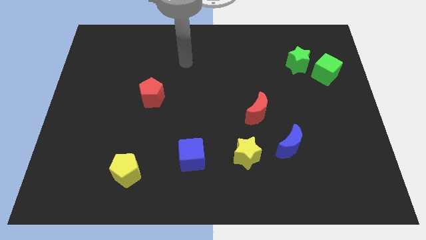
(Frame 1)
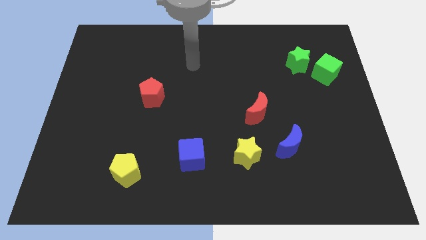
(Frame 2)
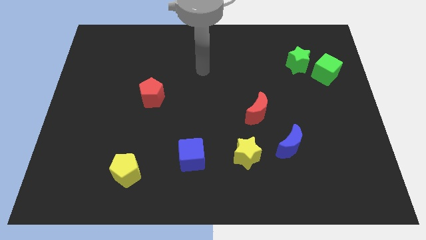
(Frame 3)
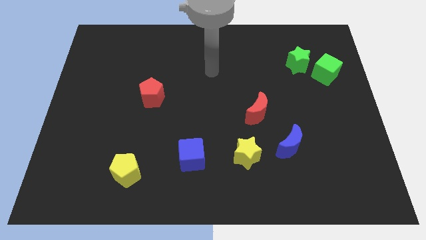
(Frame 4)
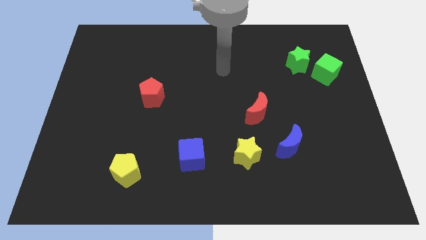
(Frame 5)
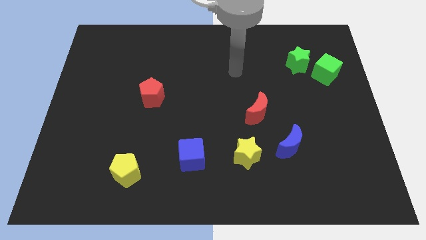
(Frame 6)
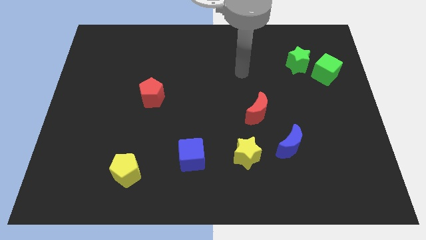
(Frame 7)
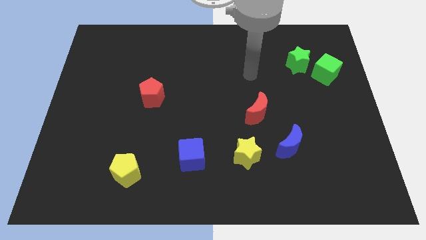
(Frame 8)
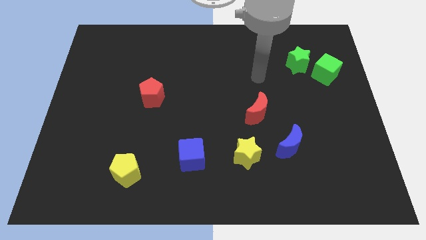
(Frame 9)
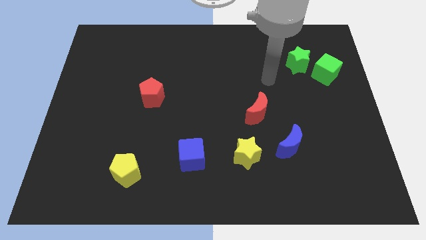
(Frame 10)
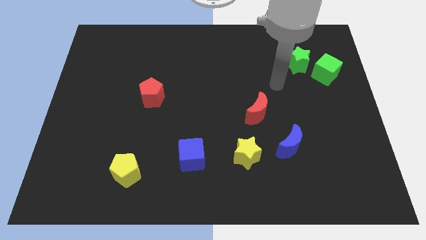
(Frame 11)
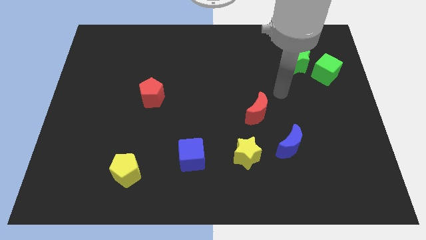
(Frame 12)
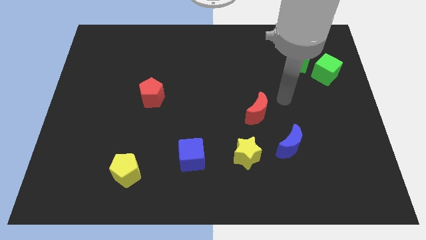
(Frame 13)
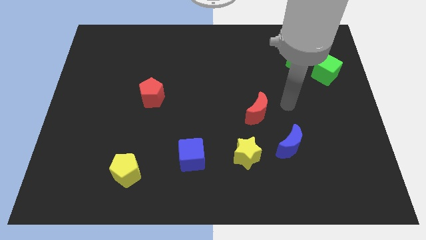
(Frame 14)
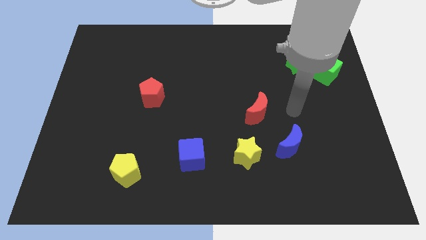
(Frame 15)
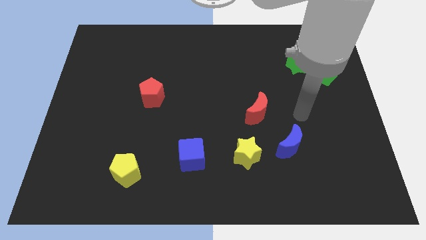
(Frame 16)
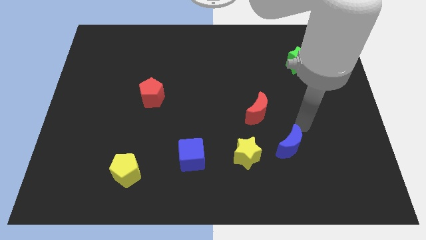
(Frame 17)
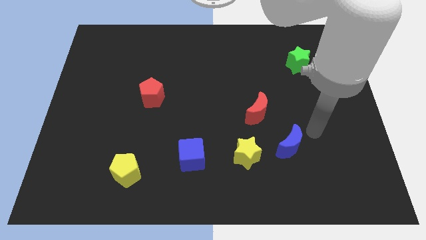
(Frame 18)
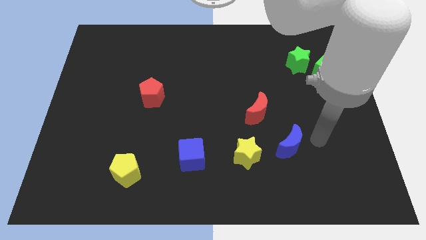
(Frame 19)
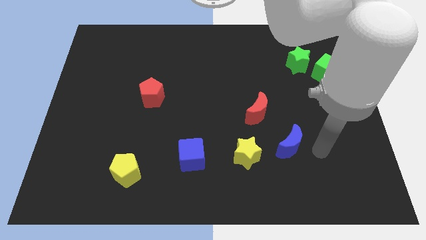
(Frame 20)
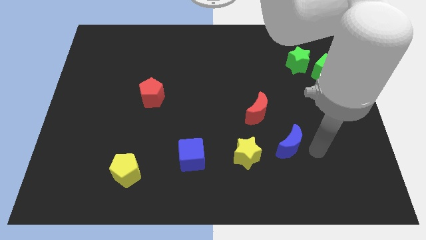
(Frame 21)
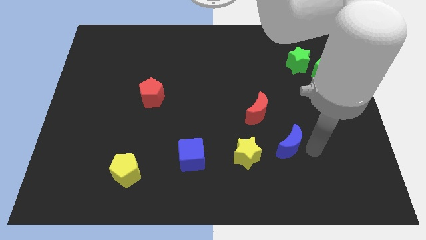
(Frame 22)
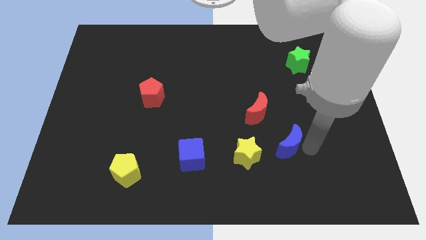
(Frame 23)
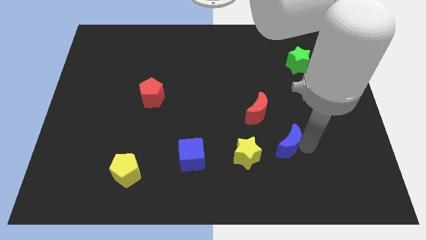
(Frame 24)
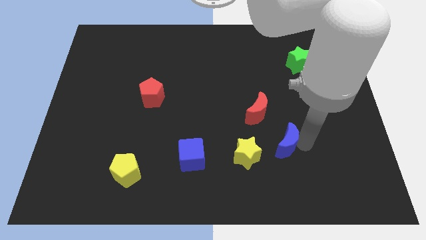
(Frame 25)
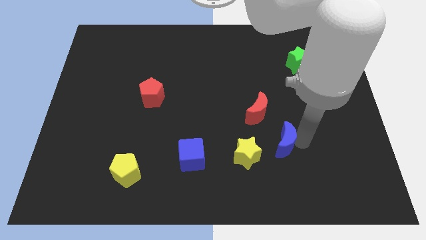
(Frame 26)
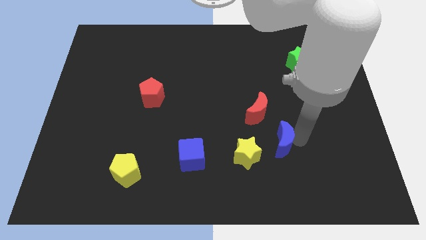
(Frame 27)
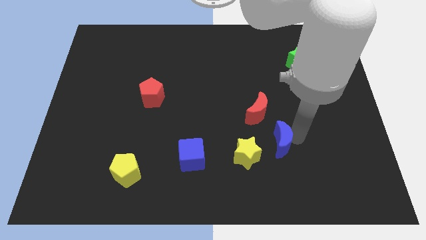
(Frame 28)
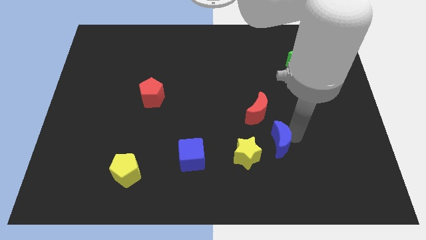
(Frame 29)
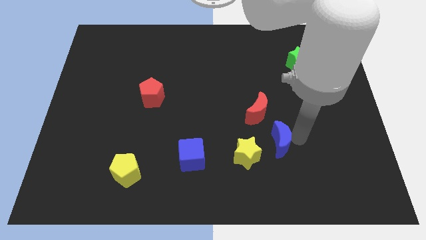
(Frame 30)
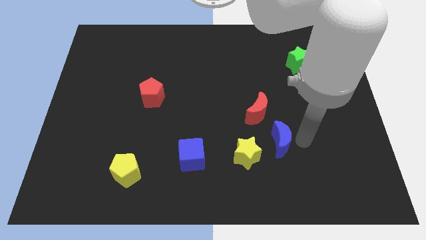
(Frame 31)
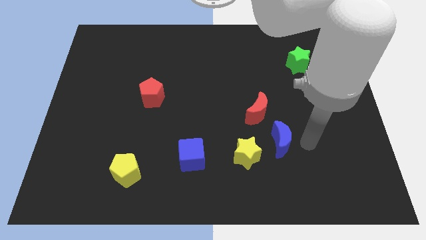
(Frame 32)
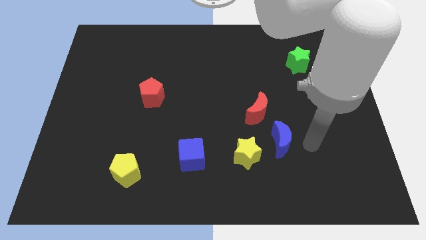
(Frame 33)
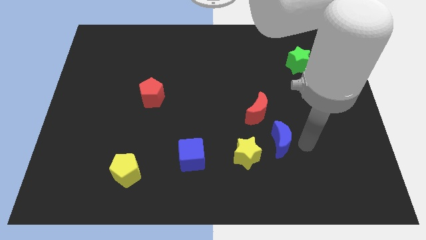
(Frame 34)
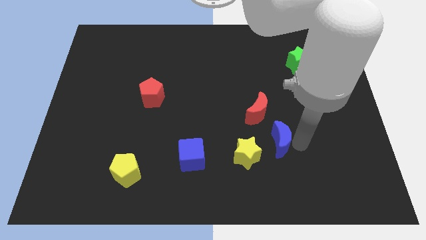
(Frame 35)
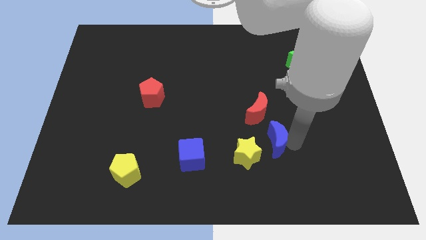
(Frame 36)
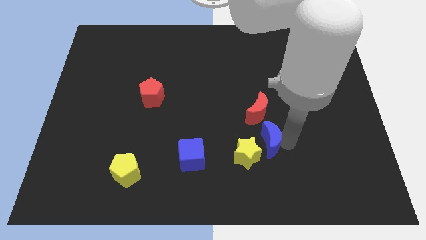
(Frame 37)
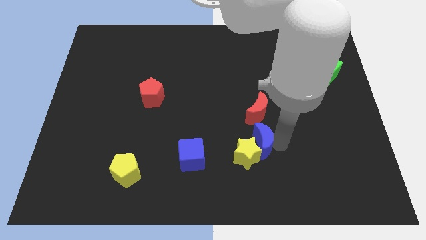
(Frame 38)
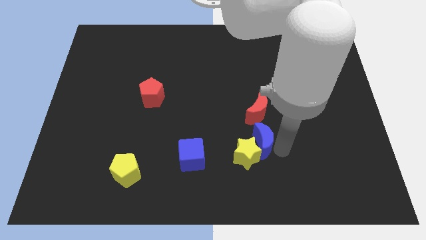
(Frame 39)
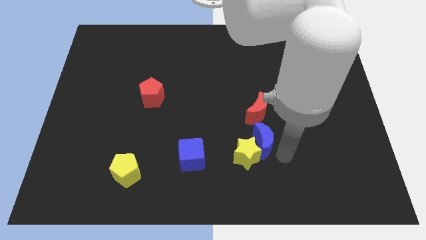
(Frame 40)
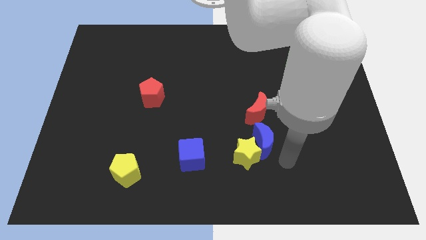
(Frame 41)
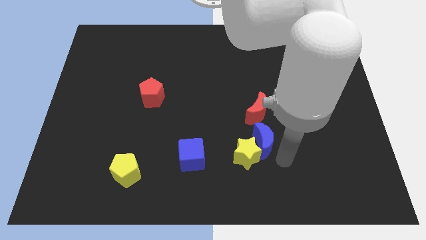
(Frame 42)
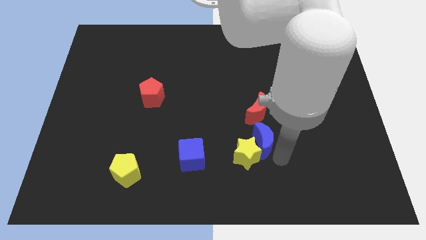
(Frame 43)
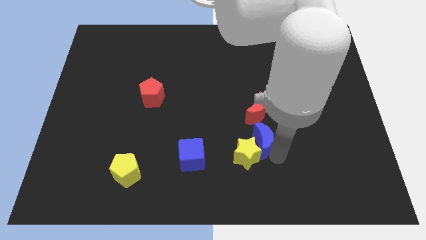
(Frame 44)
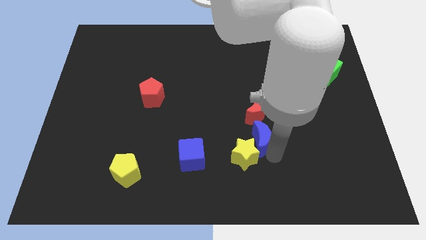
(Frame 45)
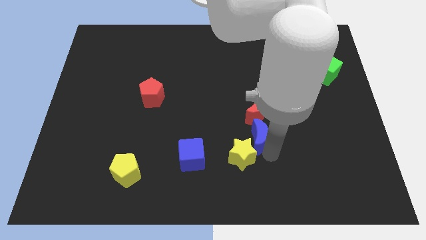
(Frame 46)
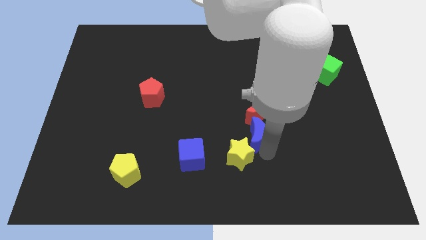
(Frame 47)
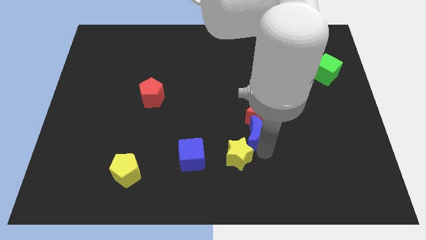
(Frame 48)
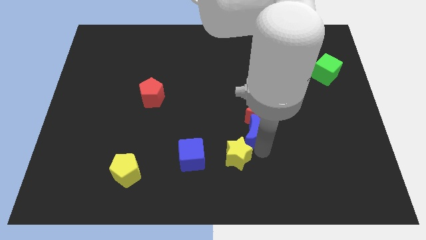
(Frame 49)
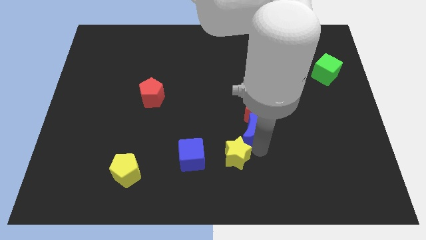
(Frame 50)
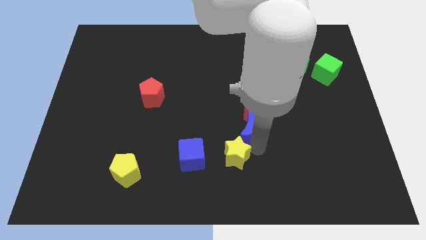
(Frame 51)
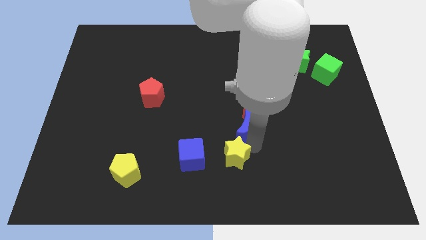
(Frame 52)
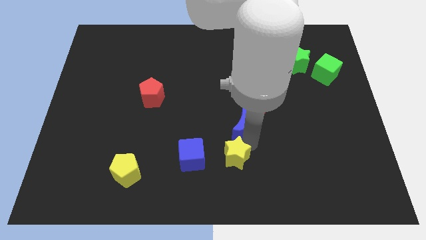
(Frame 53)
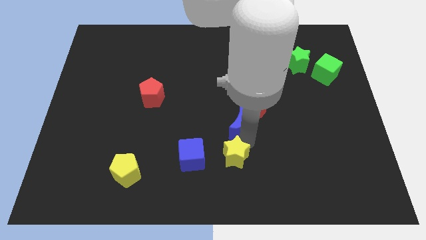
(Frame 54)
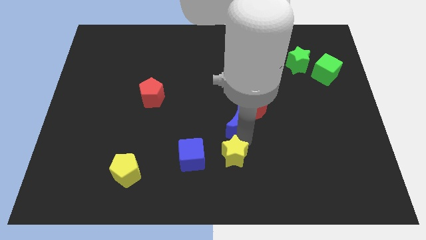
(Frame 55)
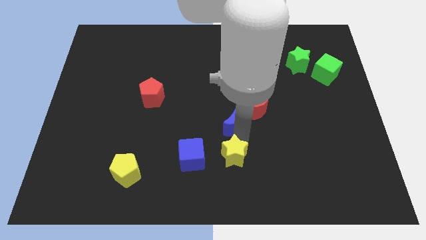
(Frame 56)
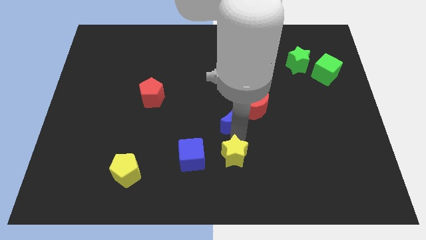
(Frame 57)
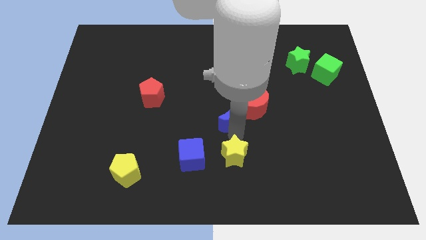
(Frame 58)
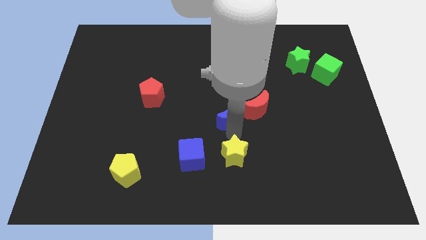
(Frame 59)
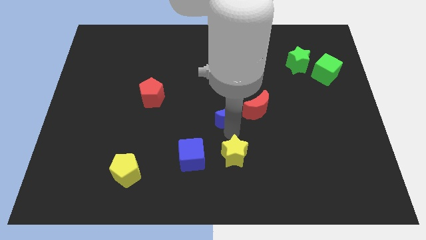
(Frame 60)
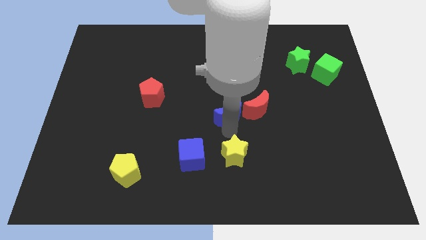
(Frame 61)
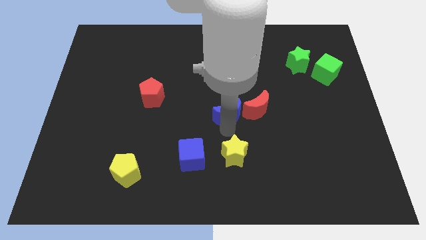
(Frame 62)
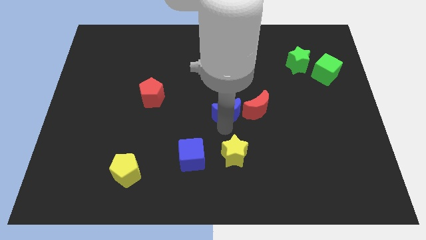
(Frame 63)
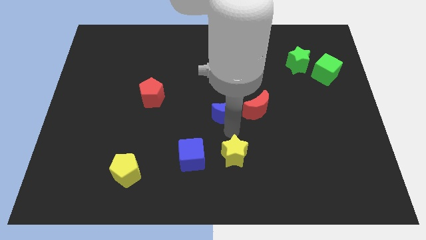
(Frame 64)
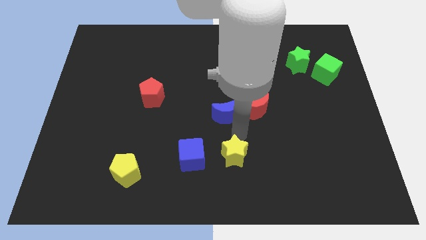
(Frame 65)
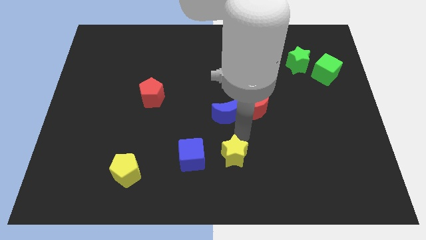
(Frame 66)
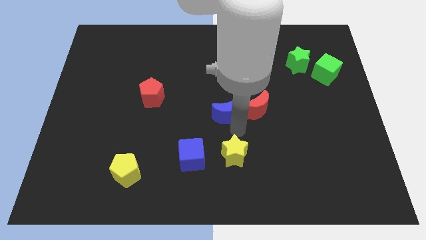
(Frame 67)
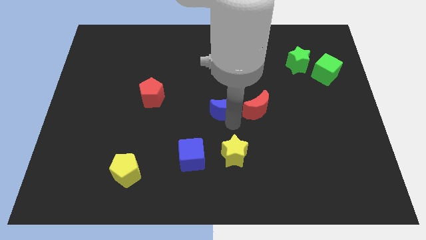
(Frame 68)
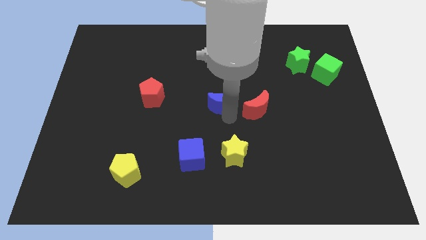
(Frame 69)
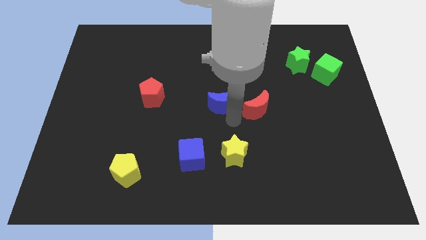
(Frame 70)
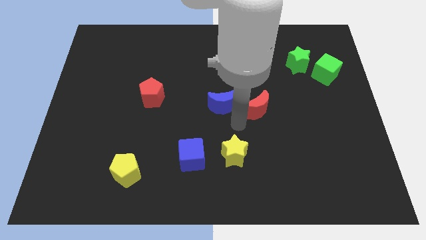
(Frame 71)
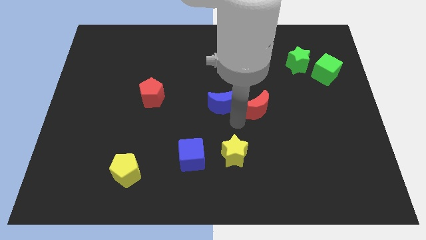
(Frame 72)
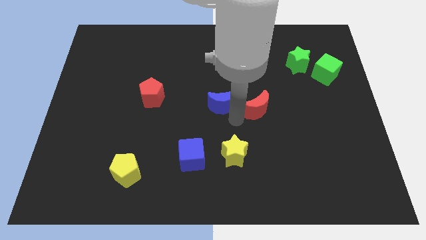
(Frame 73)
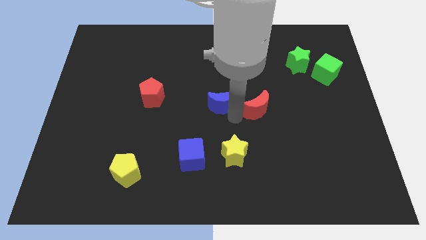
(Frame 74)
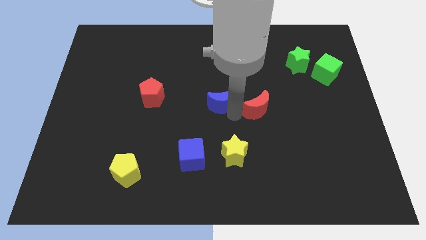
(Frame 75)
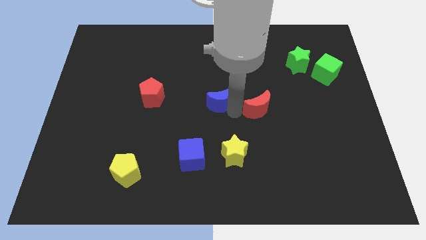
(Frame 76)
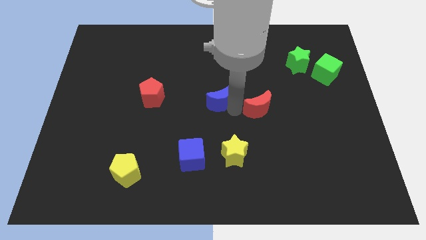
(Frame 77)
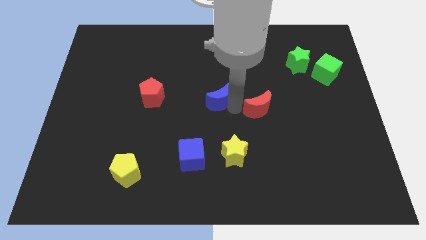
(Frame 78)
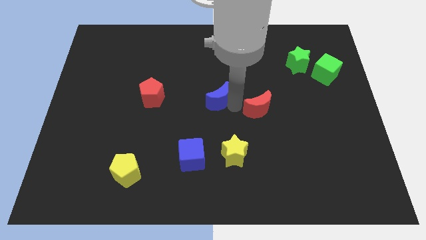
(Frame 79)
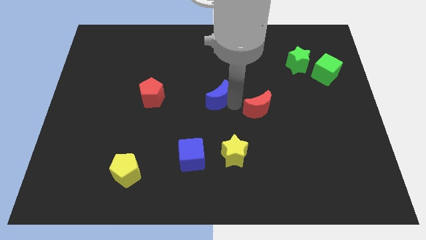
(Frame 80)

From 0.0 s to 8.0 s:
slide the blue moon up and then left
